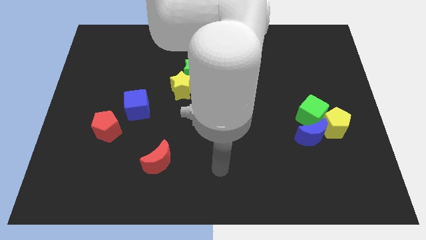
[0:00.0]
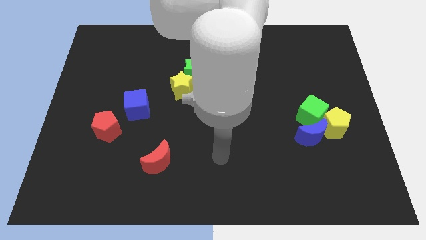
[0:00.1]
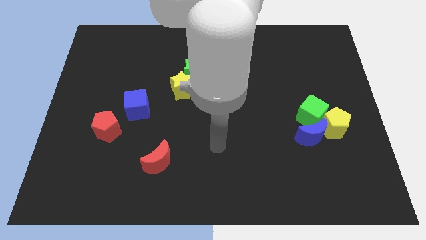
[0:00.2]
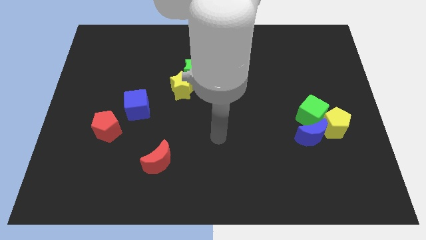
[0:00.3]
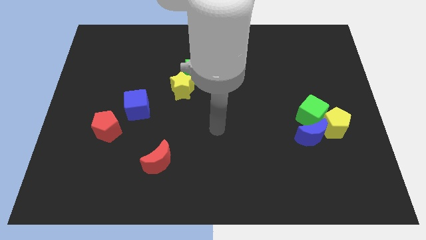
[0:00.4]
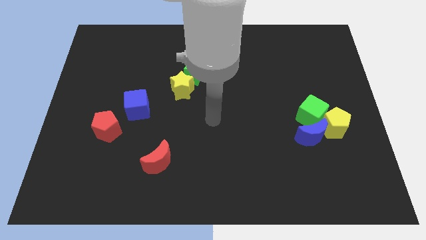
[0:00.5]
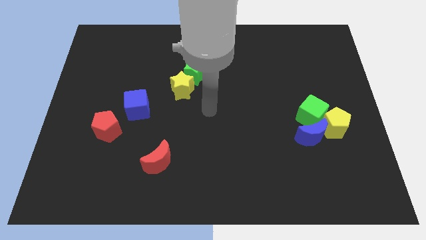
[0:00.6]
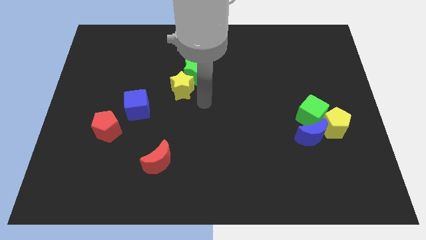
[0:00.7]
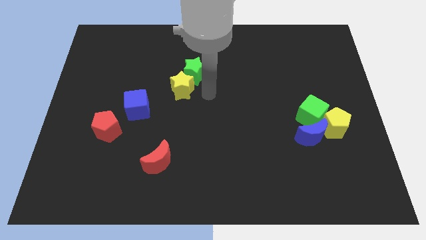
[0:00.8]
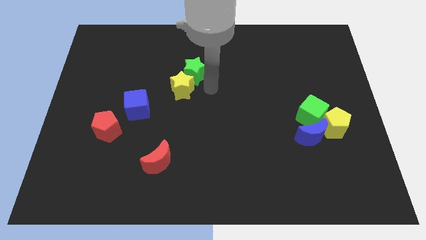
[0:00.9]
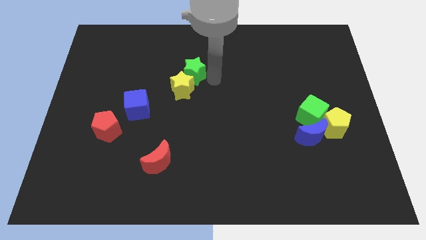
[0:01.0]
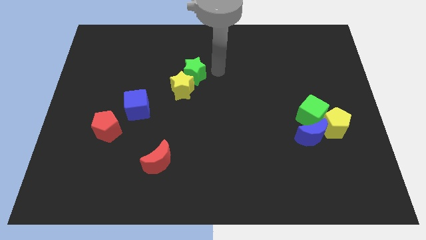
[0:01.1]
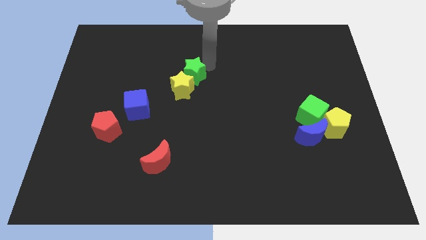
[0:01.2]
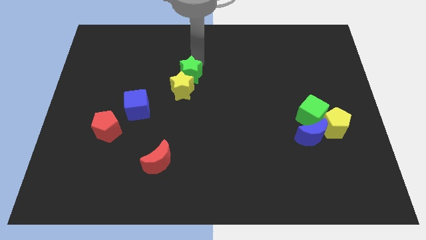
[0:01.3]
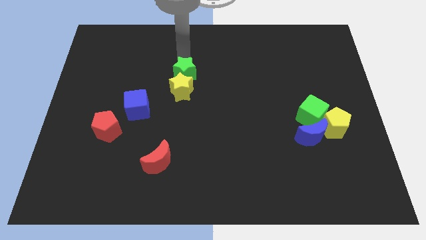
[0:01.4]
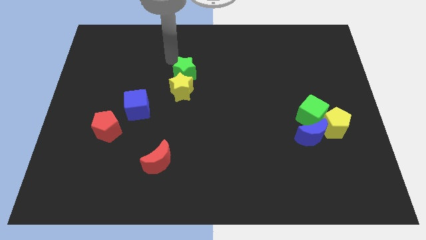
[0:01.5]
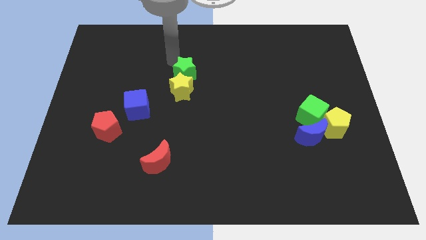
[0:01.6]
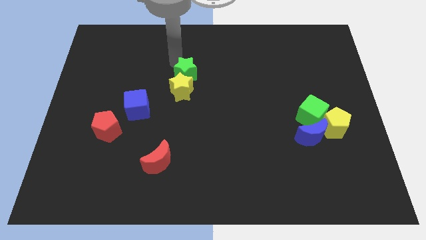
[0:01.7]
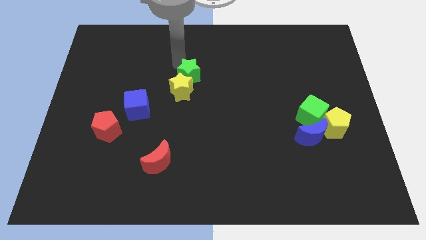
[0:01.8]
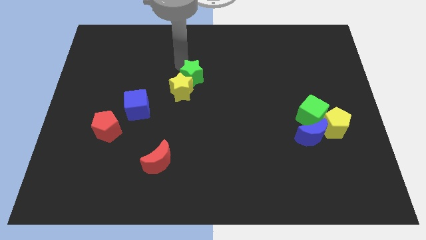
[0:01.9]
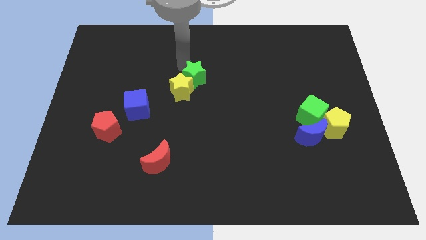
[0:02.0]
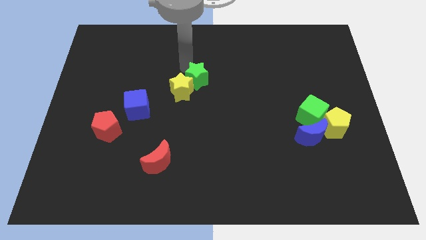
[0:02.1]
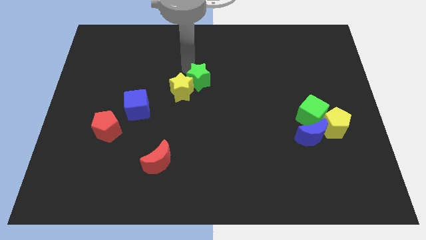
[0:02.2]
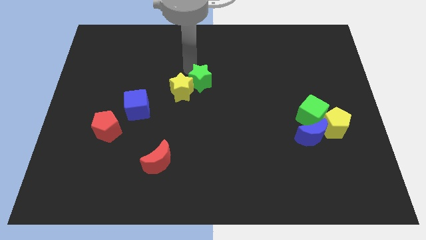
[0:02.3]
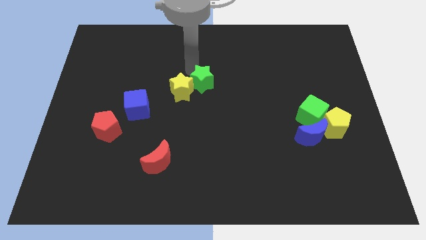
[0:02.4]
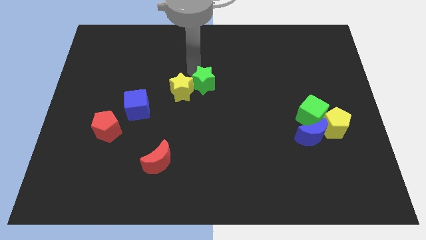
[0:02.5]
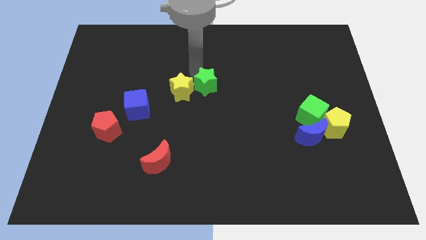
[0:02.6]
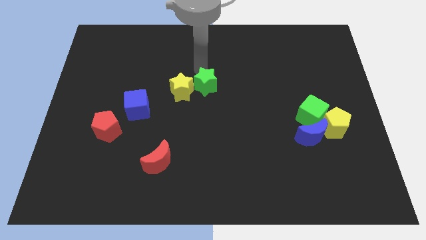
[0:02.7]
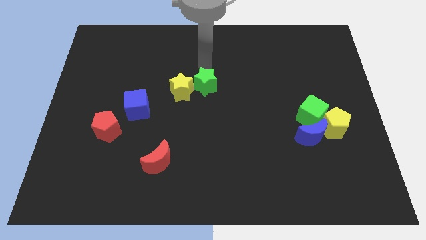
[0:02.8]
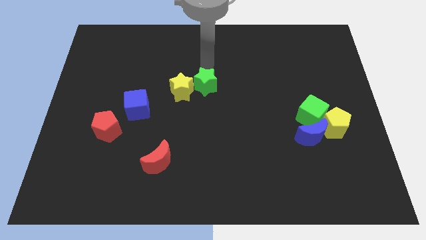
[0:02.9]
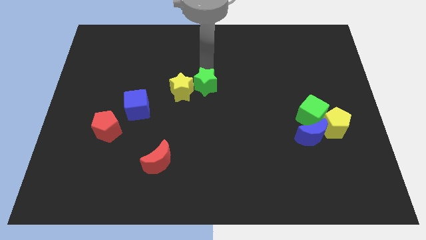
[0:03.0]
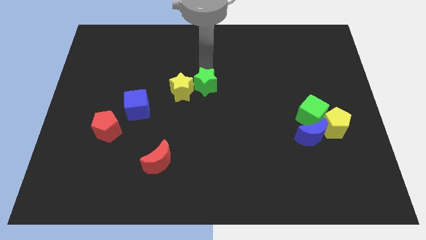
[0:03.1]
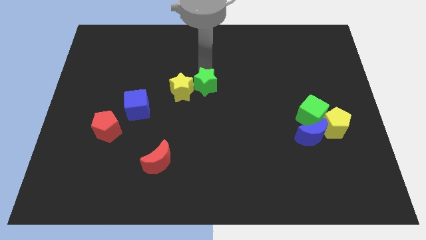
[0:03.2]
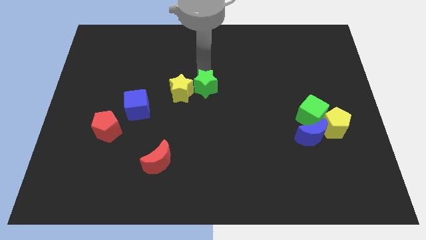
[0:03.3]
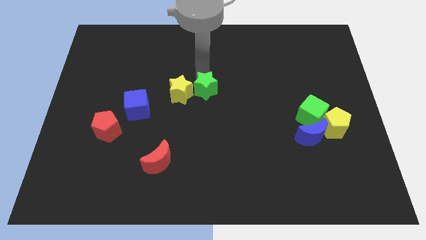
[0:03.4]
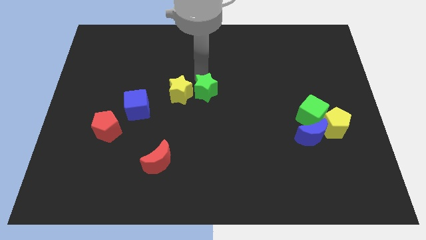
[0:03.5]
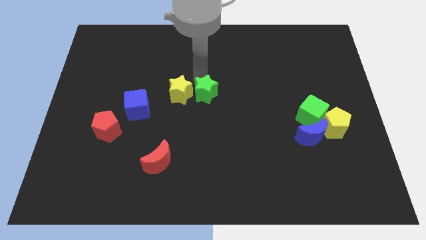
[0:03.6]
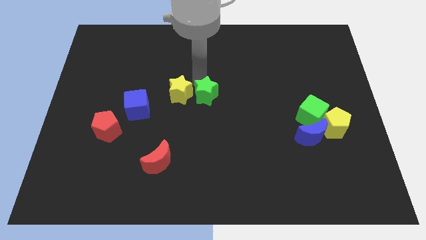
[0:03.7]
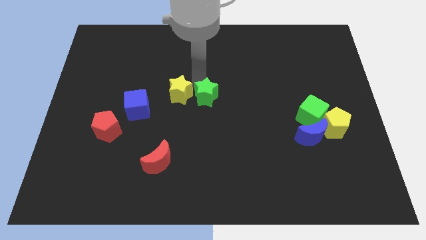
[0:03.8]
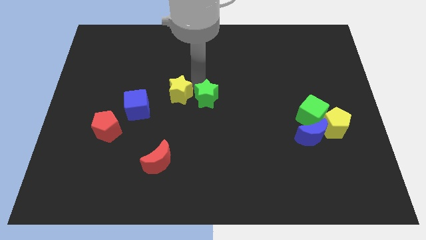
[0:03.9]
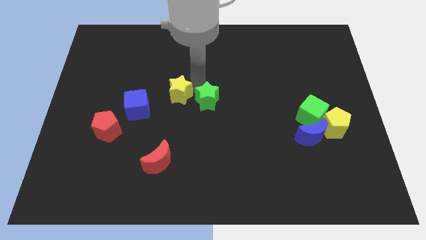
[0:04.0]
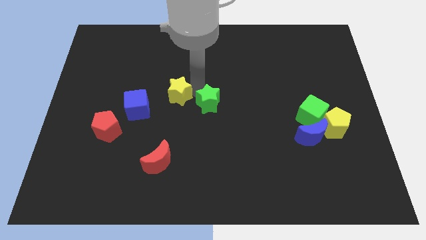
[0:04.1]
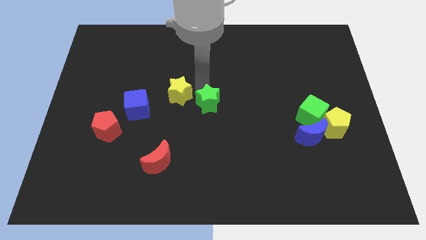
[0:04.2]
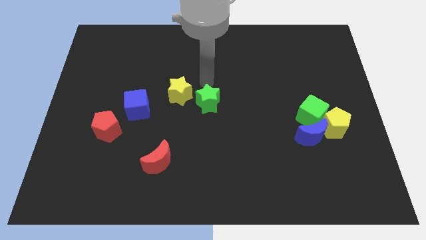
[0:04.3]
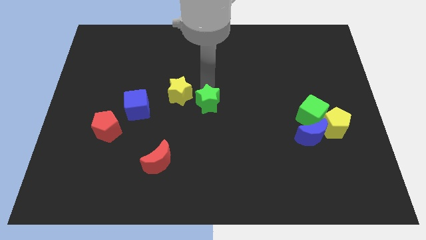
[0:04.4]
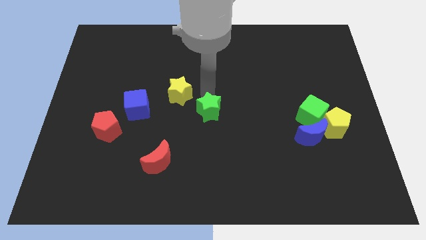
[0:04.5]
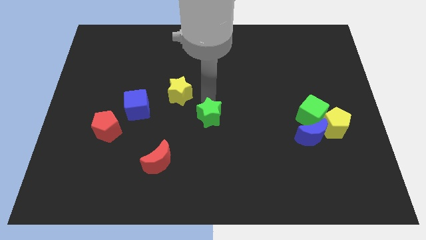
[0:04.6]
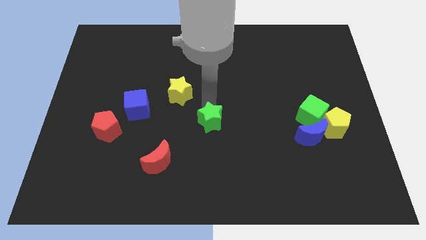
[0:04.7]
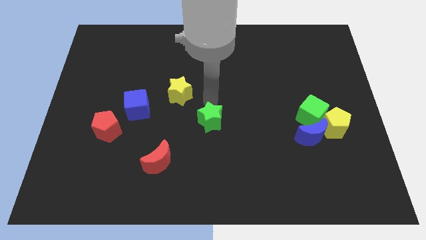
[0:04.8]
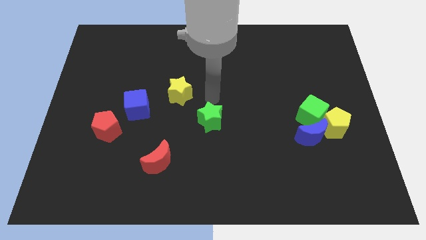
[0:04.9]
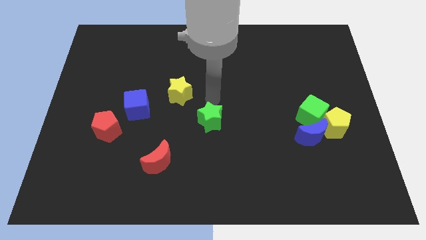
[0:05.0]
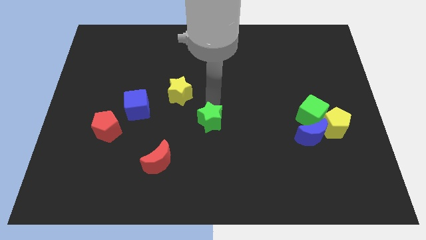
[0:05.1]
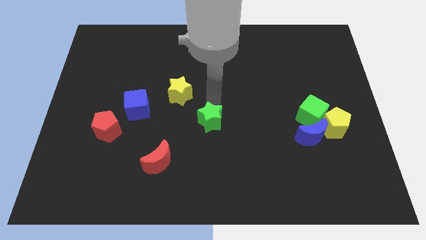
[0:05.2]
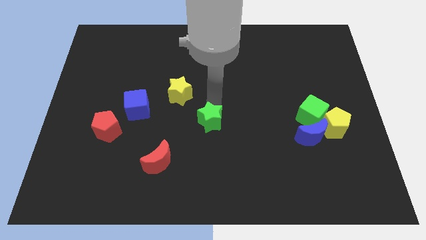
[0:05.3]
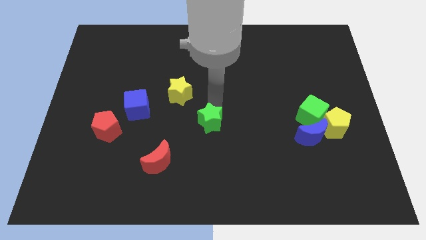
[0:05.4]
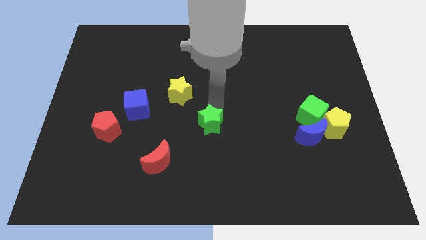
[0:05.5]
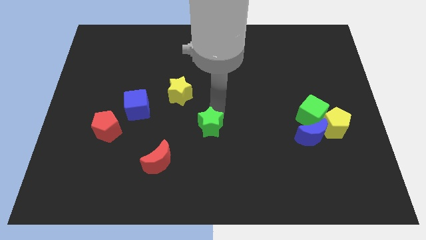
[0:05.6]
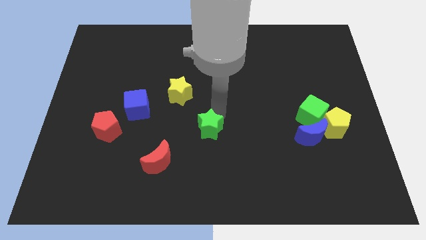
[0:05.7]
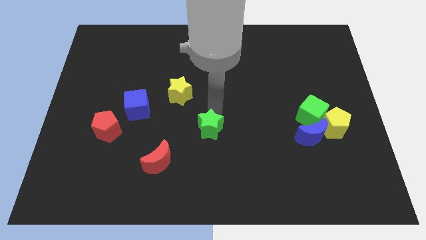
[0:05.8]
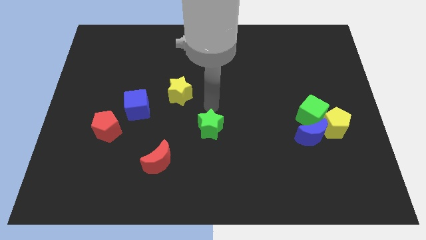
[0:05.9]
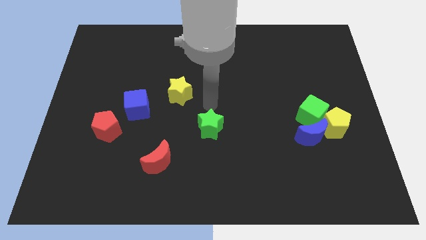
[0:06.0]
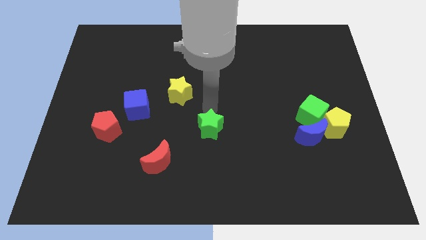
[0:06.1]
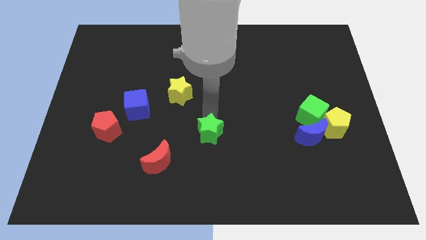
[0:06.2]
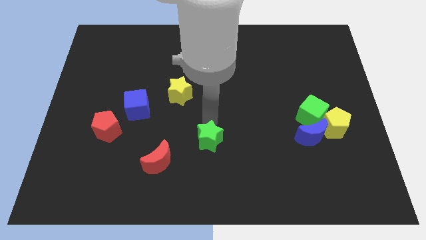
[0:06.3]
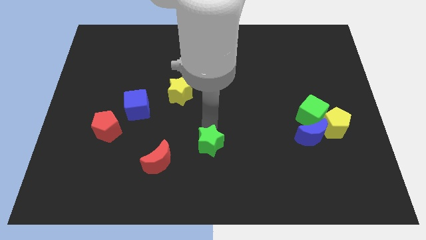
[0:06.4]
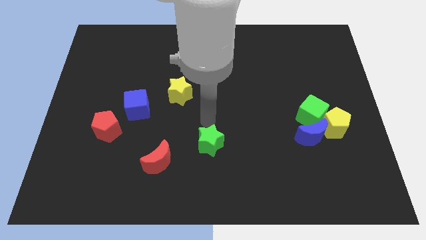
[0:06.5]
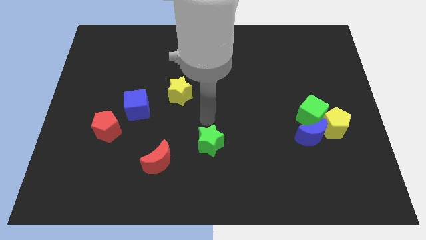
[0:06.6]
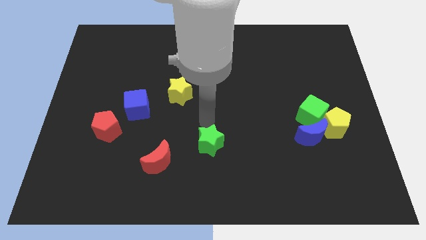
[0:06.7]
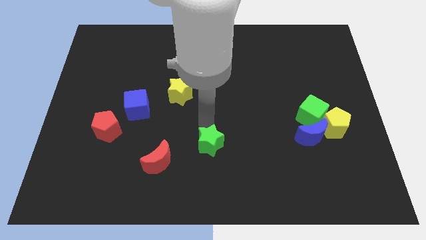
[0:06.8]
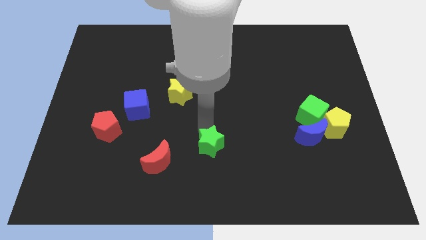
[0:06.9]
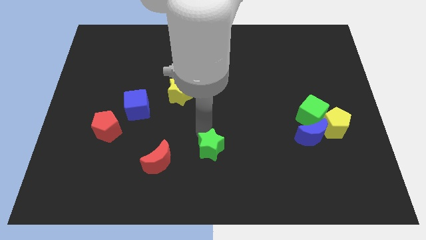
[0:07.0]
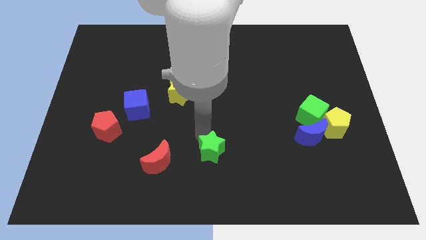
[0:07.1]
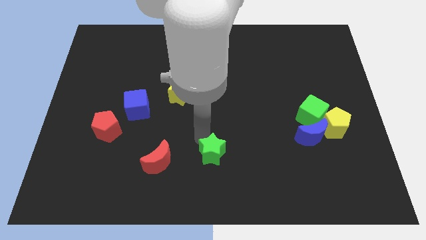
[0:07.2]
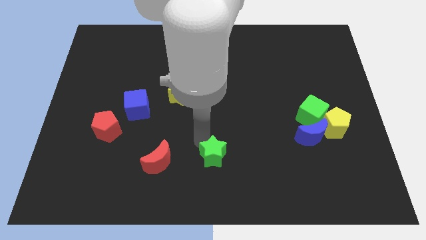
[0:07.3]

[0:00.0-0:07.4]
move the green star to the bottom
